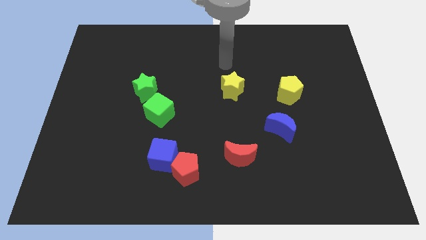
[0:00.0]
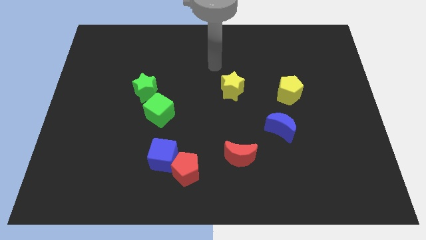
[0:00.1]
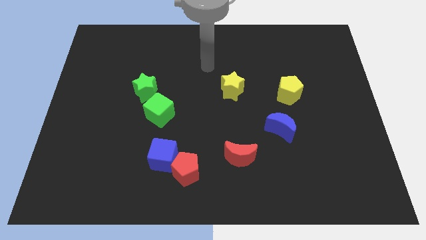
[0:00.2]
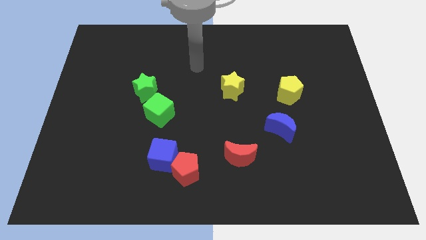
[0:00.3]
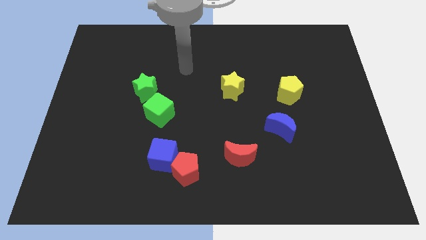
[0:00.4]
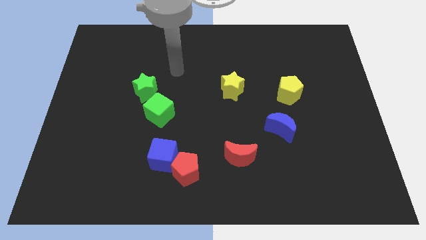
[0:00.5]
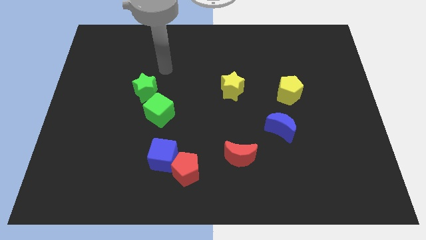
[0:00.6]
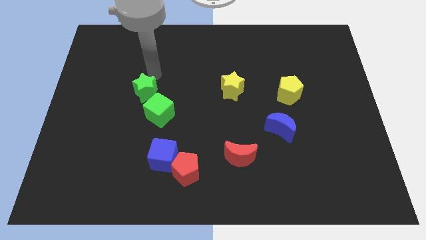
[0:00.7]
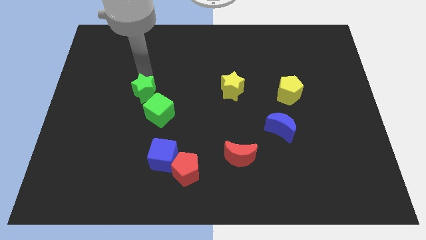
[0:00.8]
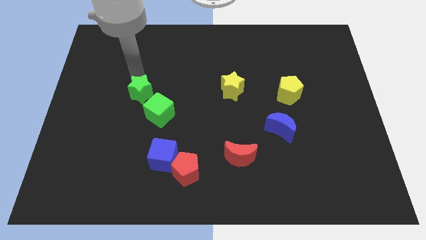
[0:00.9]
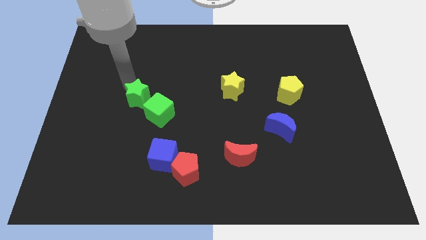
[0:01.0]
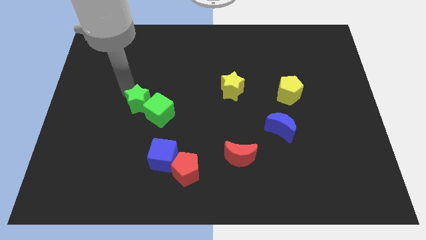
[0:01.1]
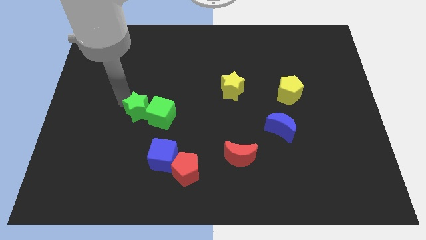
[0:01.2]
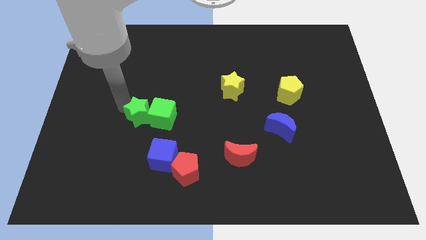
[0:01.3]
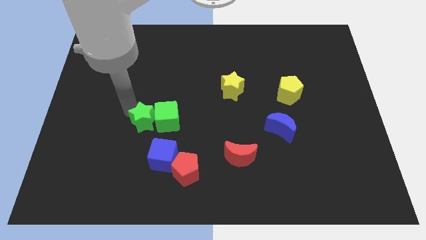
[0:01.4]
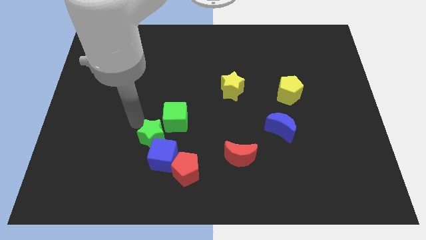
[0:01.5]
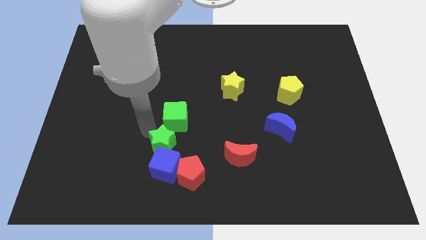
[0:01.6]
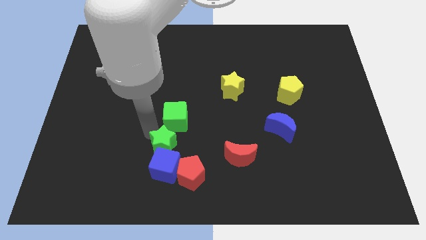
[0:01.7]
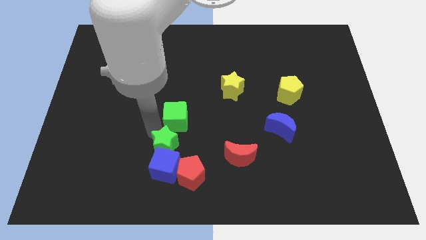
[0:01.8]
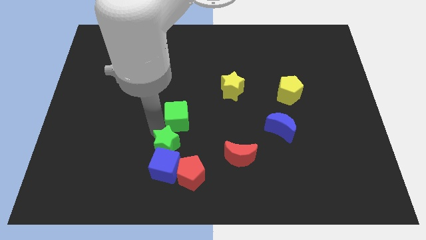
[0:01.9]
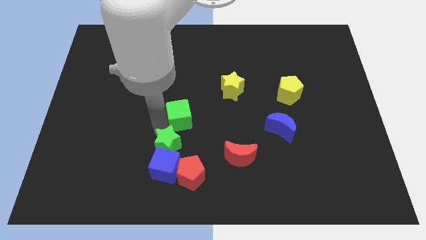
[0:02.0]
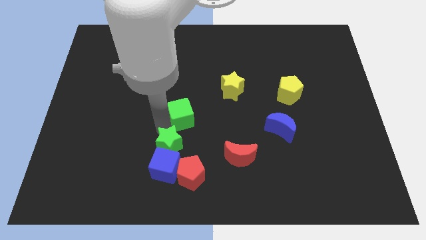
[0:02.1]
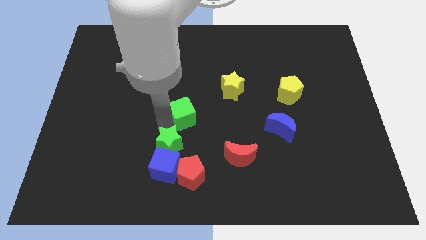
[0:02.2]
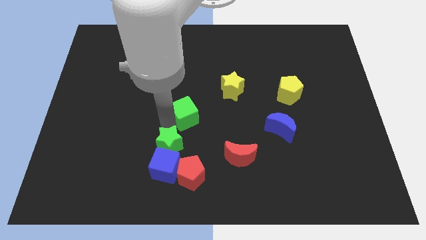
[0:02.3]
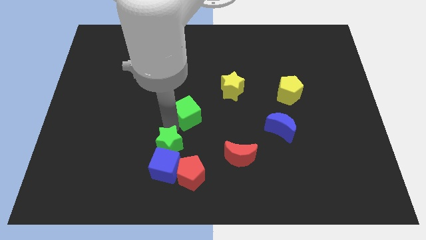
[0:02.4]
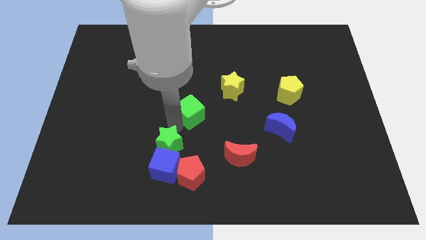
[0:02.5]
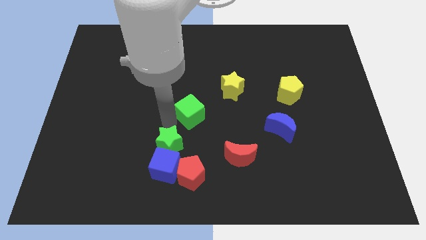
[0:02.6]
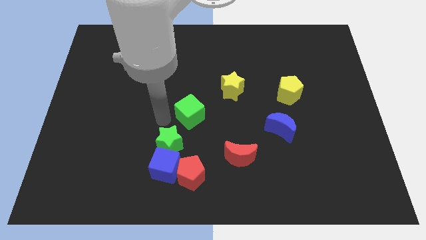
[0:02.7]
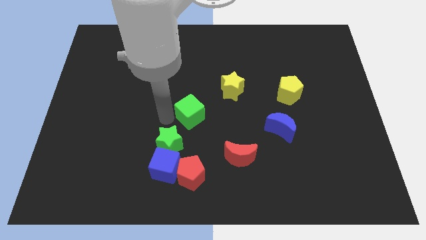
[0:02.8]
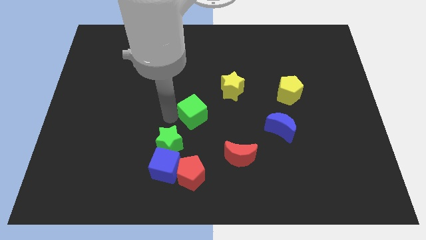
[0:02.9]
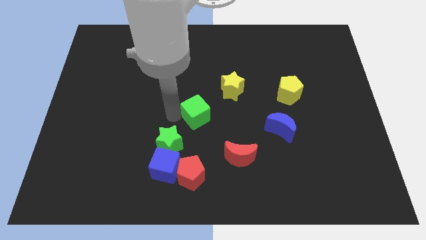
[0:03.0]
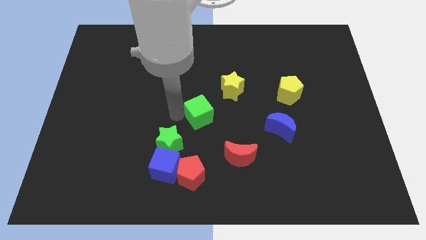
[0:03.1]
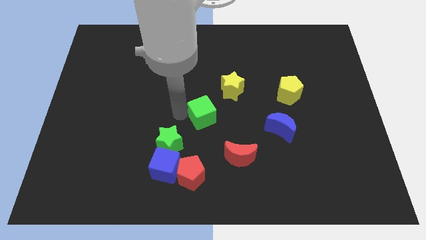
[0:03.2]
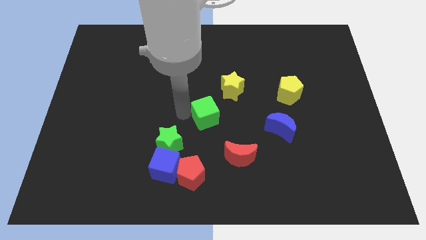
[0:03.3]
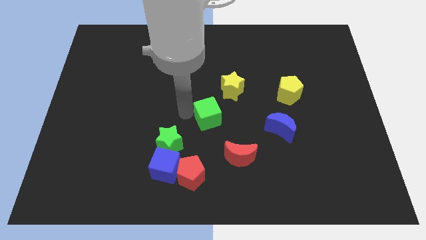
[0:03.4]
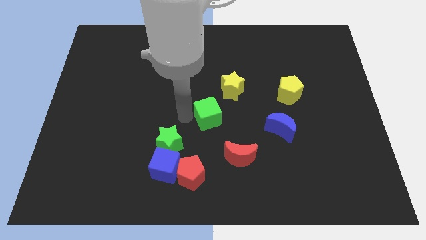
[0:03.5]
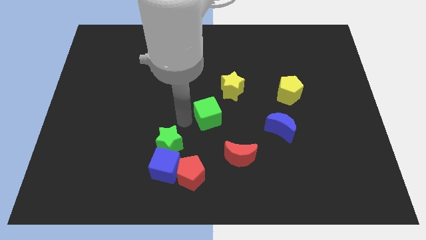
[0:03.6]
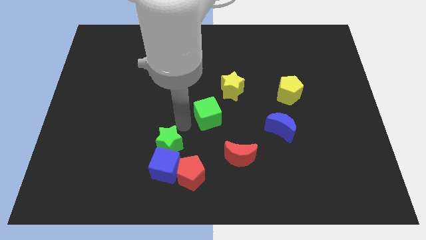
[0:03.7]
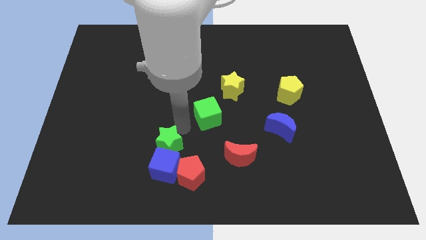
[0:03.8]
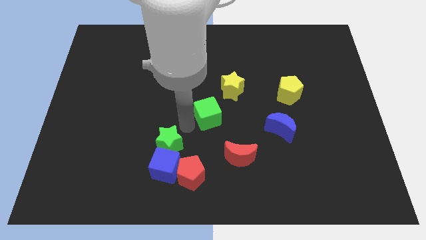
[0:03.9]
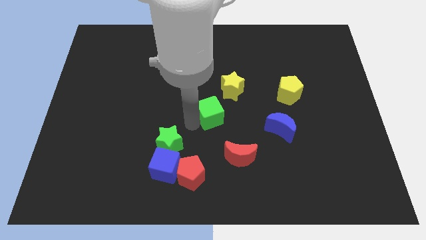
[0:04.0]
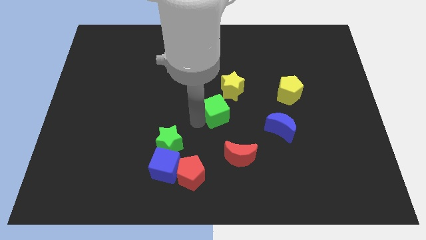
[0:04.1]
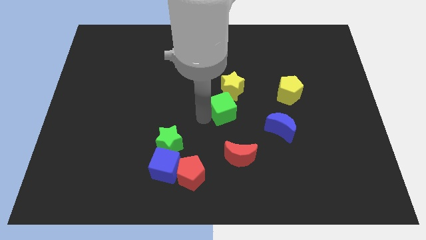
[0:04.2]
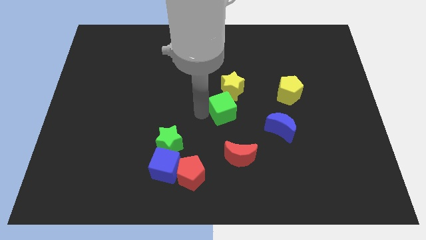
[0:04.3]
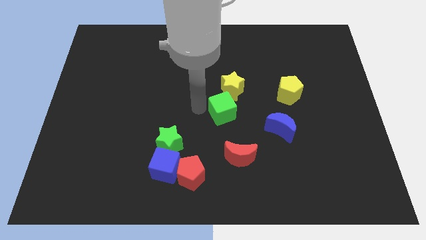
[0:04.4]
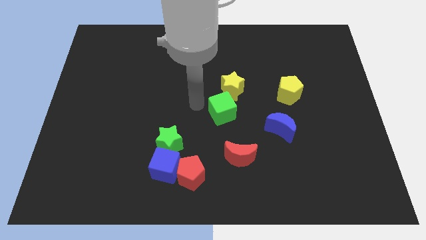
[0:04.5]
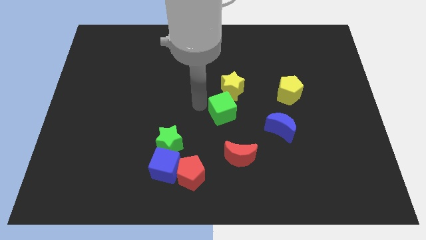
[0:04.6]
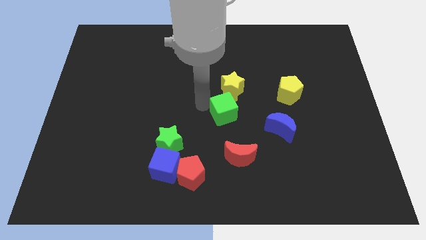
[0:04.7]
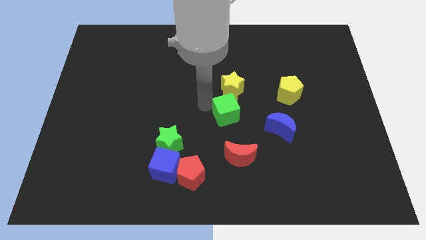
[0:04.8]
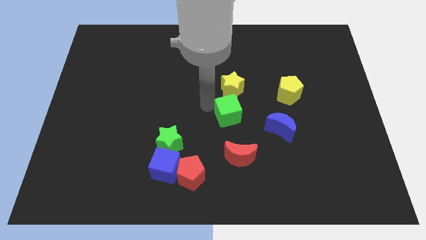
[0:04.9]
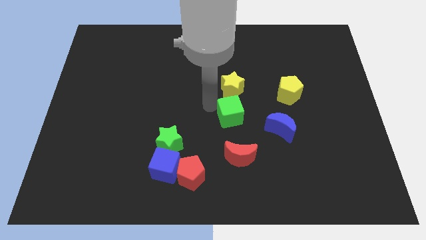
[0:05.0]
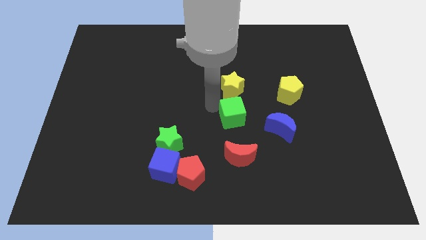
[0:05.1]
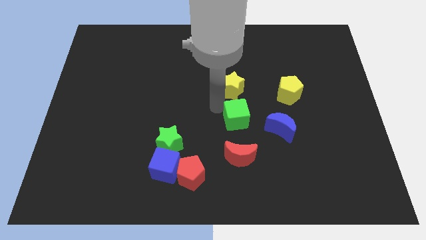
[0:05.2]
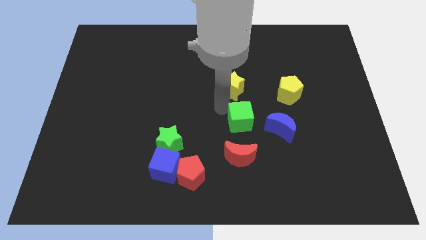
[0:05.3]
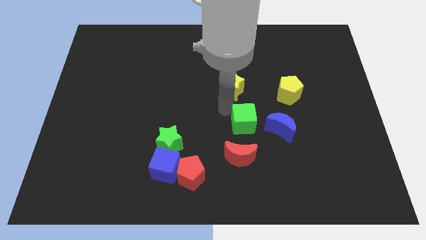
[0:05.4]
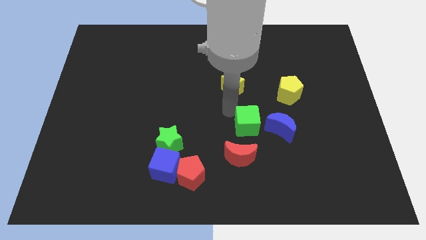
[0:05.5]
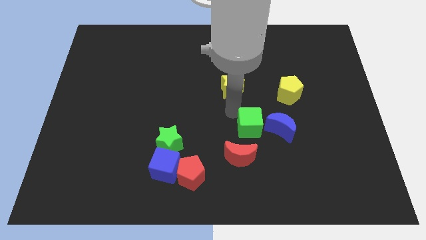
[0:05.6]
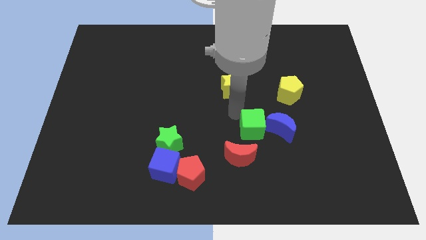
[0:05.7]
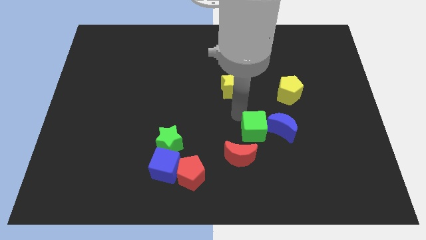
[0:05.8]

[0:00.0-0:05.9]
put the green cube next to the blue moon

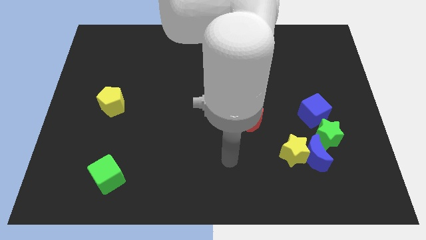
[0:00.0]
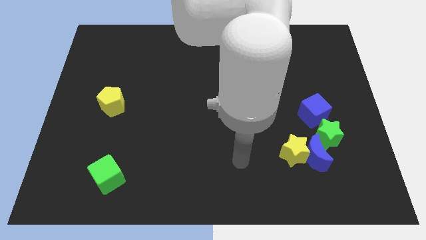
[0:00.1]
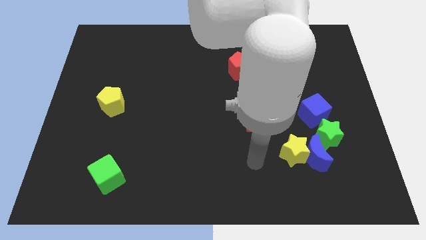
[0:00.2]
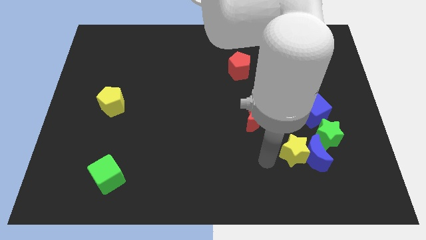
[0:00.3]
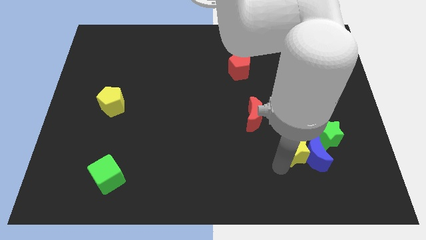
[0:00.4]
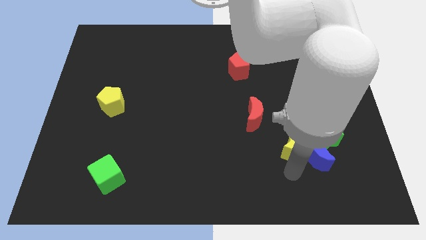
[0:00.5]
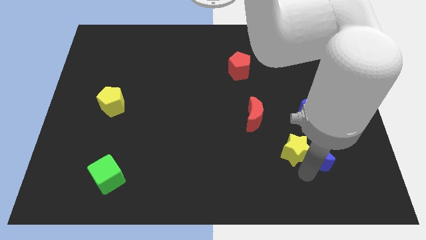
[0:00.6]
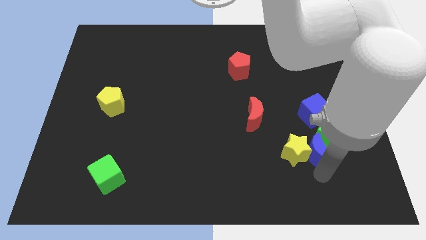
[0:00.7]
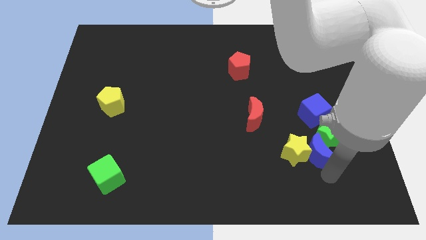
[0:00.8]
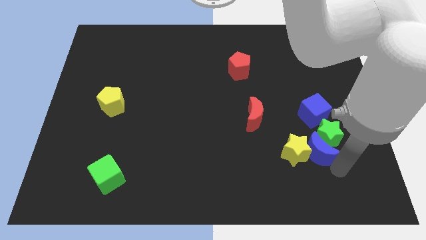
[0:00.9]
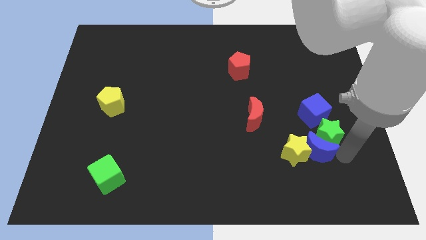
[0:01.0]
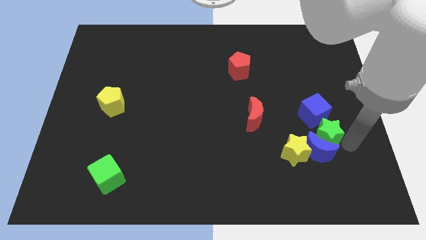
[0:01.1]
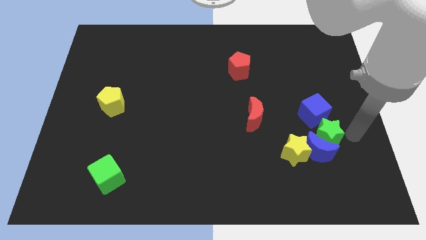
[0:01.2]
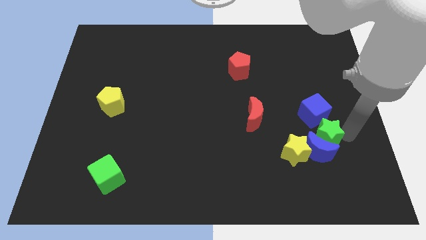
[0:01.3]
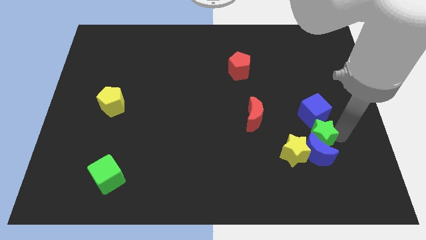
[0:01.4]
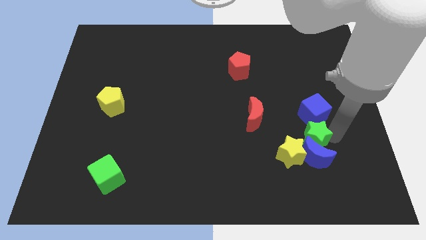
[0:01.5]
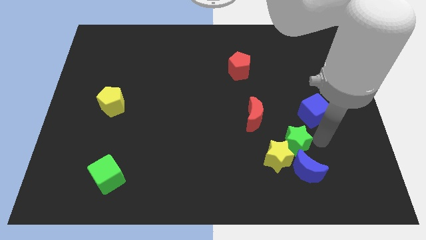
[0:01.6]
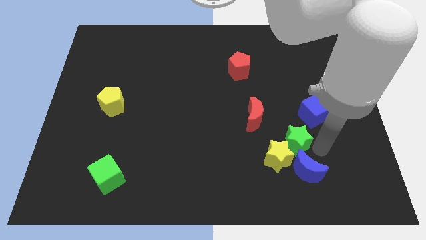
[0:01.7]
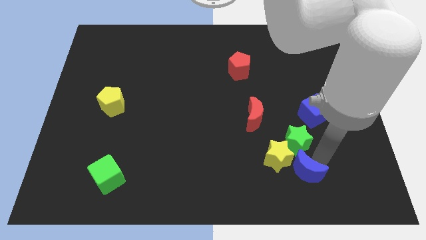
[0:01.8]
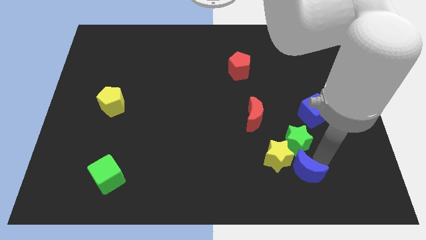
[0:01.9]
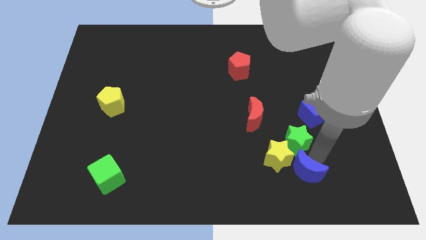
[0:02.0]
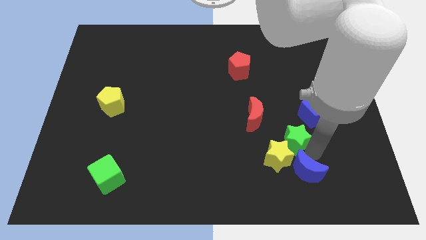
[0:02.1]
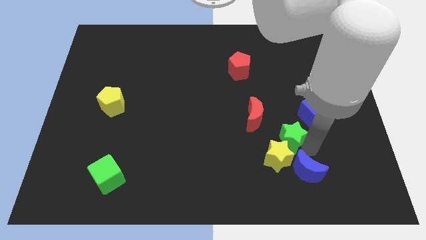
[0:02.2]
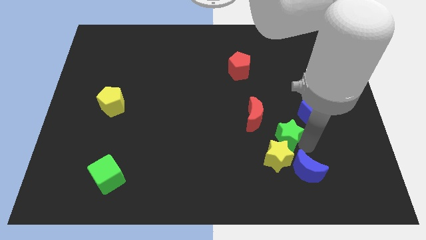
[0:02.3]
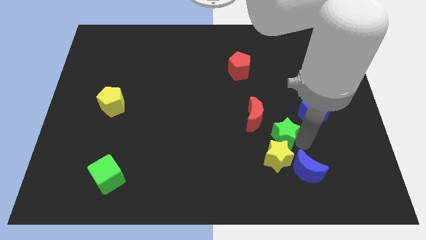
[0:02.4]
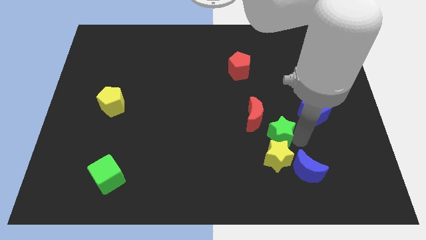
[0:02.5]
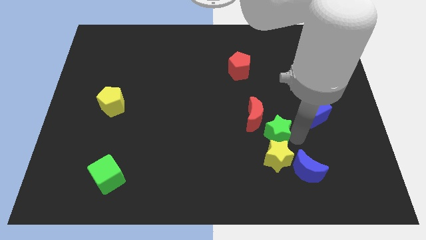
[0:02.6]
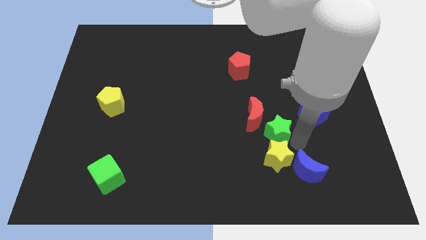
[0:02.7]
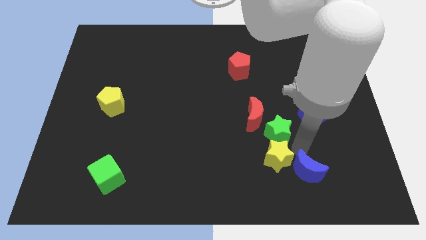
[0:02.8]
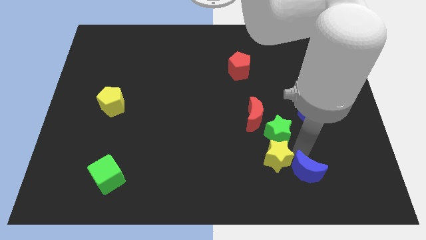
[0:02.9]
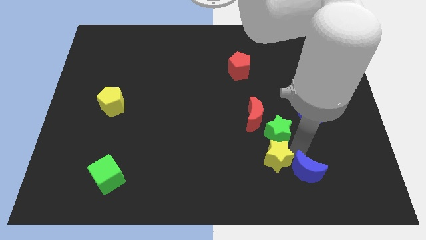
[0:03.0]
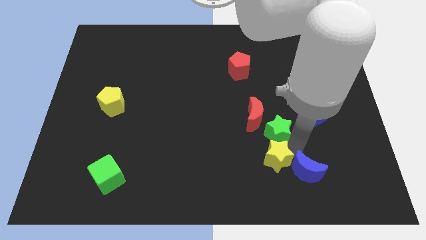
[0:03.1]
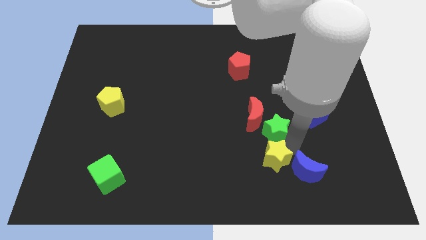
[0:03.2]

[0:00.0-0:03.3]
put the green star close to the red moon
